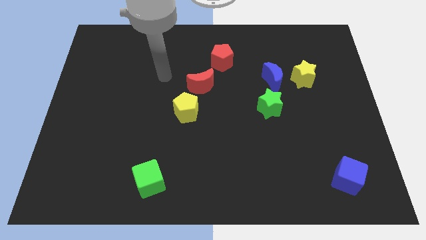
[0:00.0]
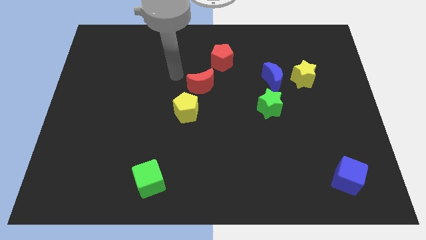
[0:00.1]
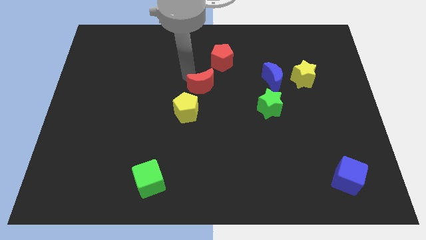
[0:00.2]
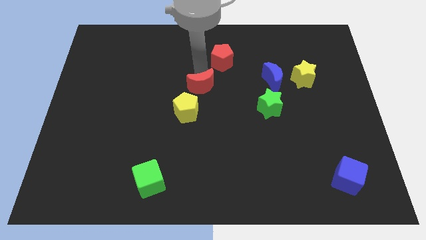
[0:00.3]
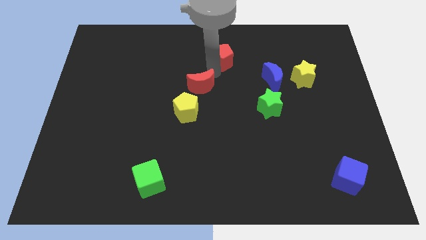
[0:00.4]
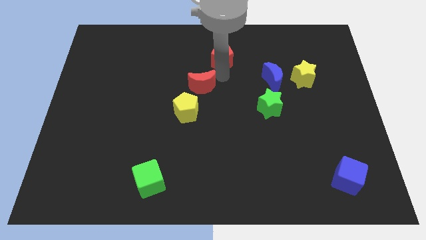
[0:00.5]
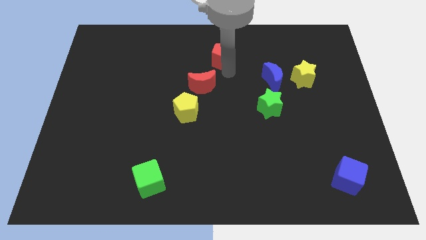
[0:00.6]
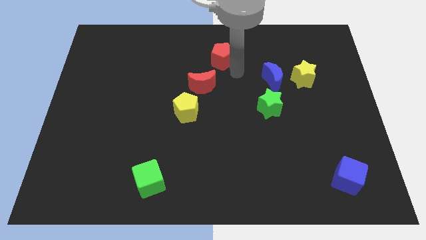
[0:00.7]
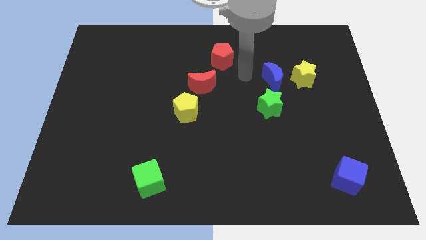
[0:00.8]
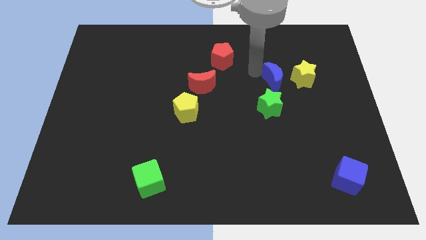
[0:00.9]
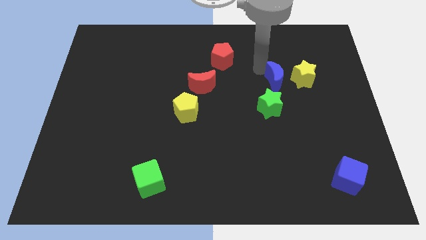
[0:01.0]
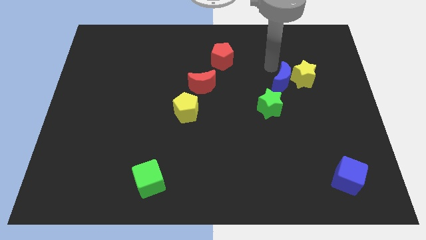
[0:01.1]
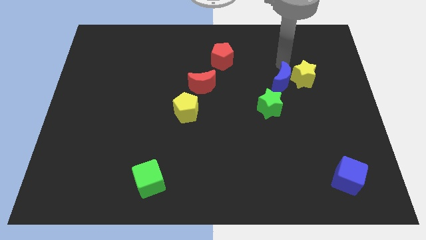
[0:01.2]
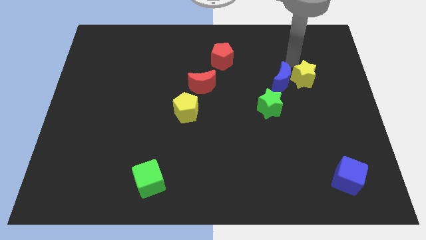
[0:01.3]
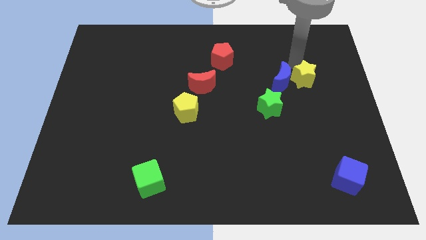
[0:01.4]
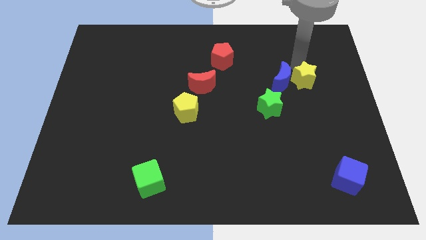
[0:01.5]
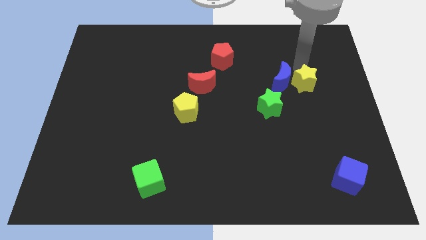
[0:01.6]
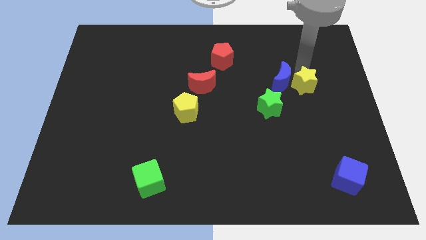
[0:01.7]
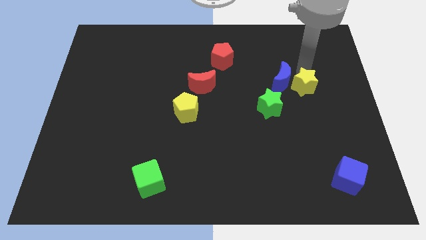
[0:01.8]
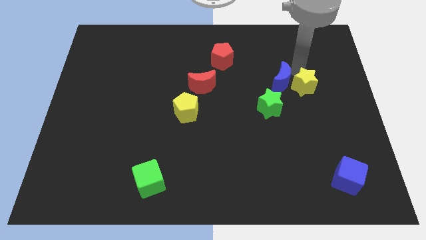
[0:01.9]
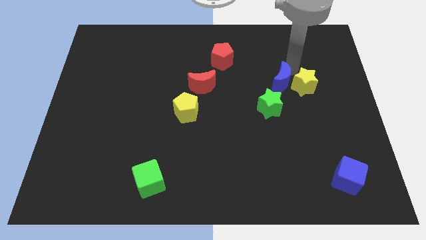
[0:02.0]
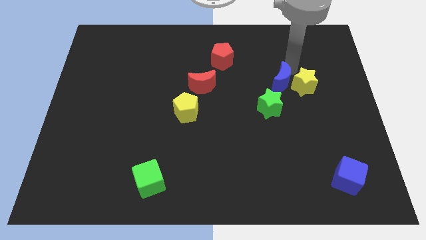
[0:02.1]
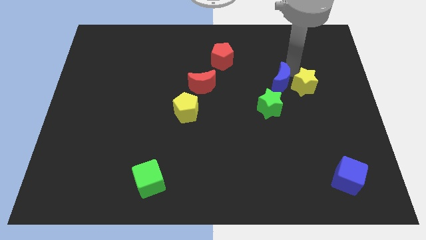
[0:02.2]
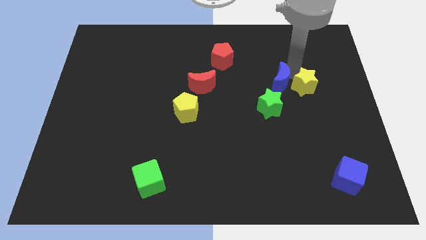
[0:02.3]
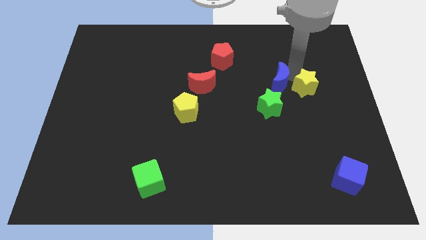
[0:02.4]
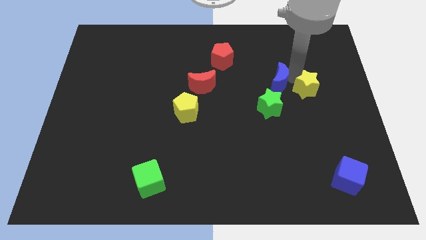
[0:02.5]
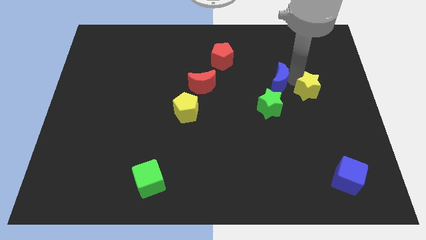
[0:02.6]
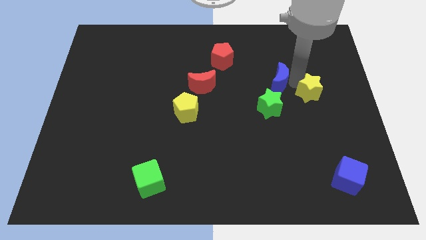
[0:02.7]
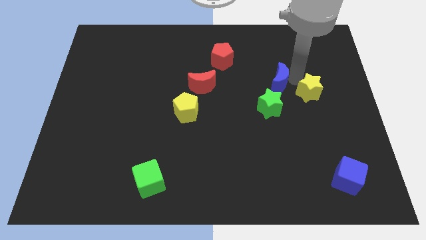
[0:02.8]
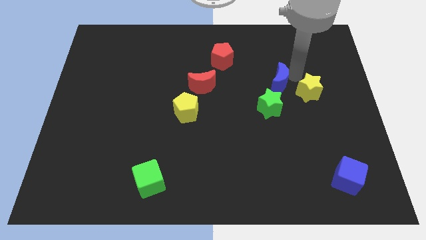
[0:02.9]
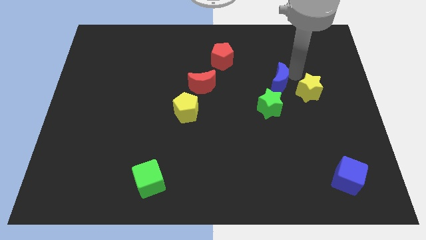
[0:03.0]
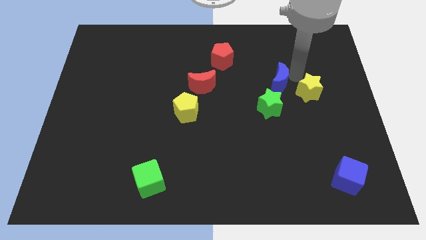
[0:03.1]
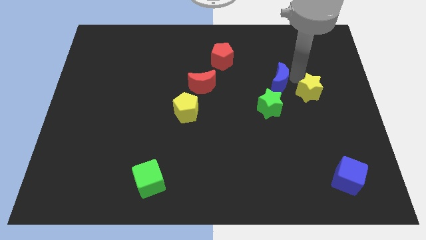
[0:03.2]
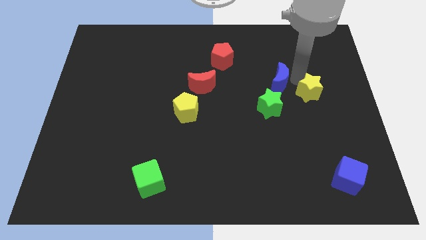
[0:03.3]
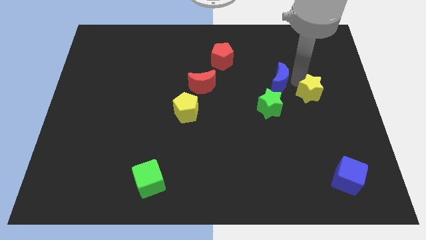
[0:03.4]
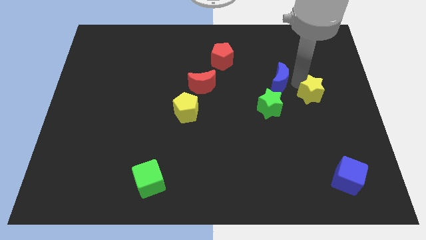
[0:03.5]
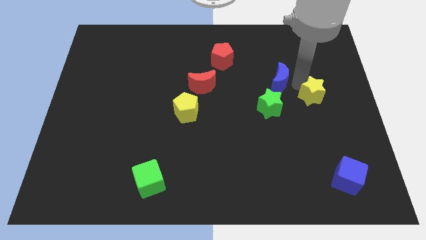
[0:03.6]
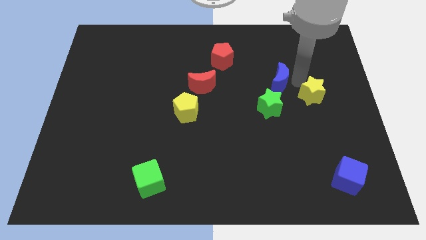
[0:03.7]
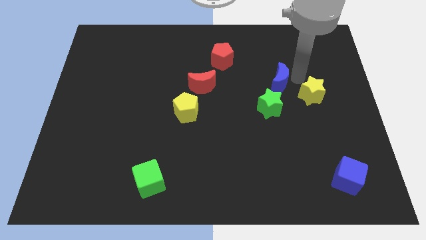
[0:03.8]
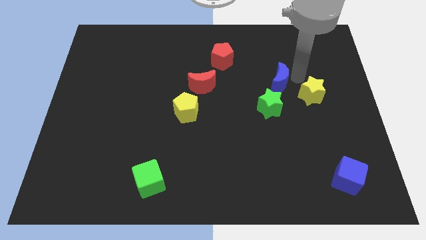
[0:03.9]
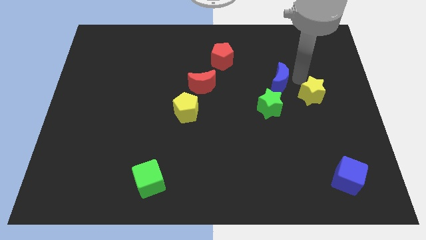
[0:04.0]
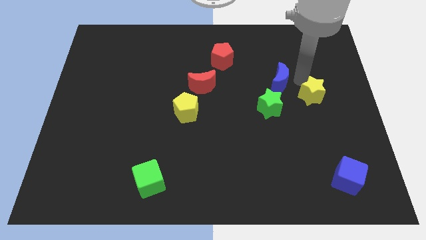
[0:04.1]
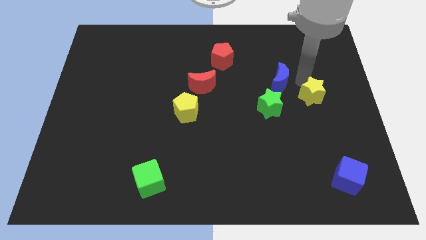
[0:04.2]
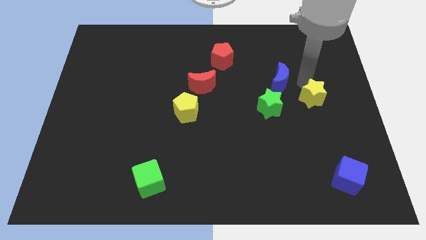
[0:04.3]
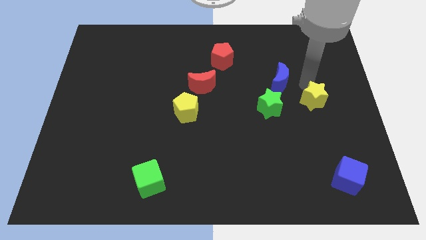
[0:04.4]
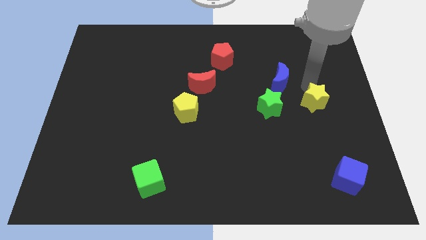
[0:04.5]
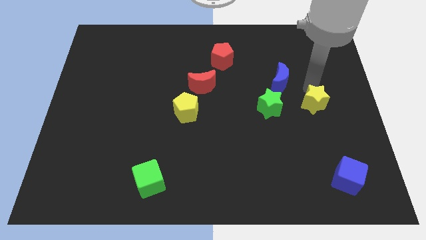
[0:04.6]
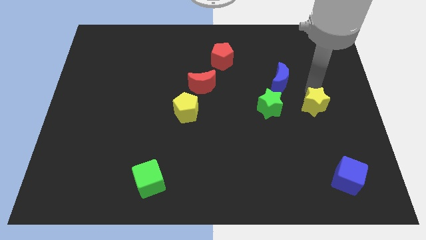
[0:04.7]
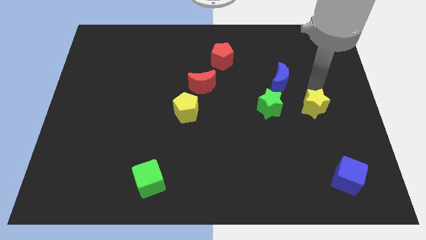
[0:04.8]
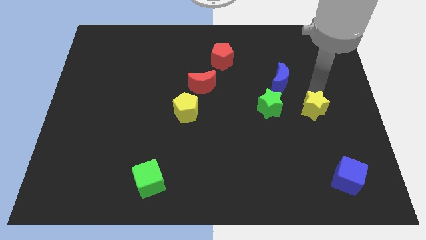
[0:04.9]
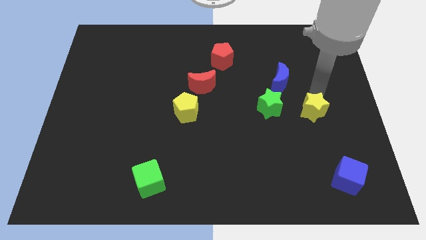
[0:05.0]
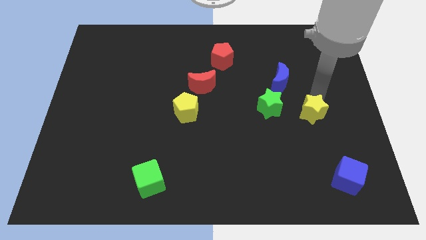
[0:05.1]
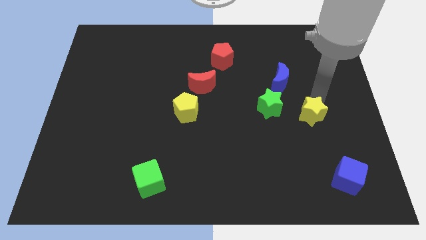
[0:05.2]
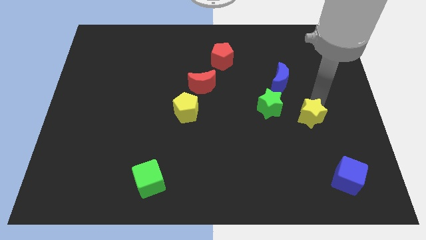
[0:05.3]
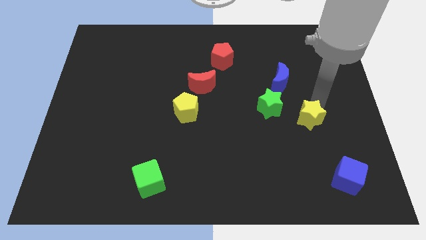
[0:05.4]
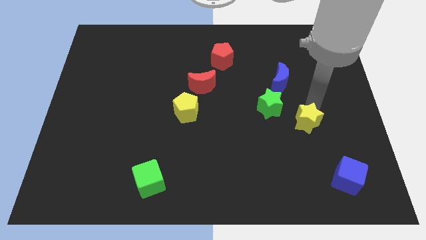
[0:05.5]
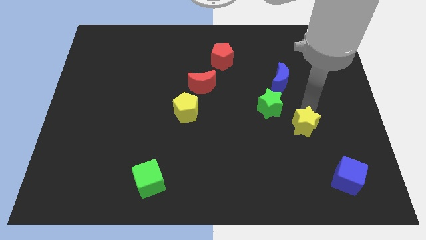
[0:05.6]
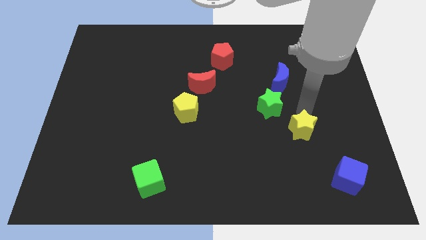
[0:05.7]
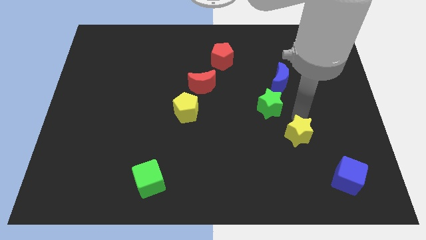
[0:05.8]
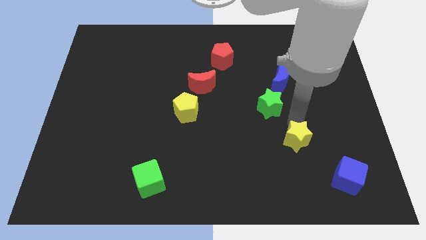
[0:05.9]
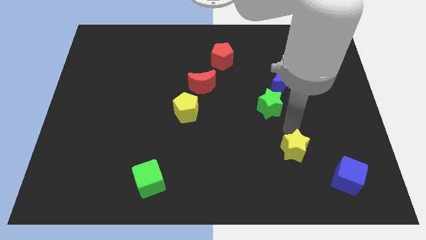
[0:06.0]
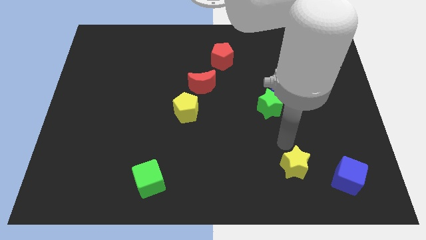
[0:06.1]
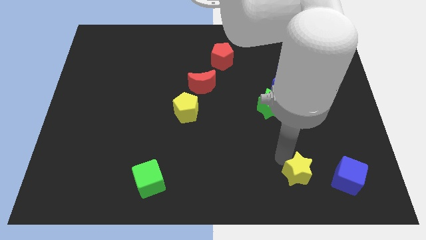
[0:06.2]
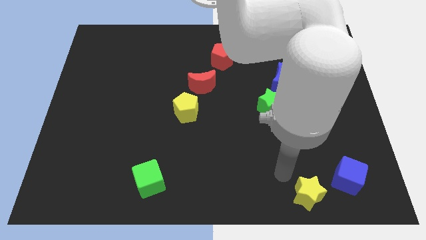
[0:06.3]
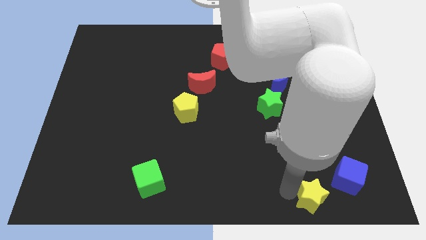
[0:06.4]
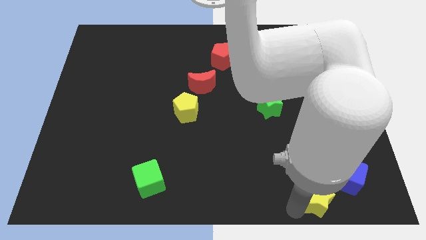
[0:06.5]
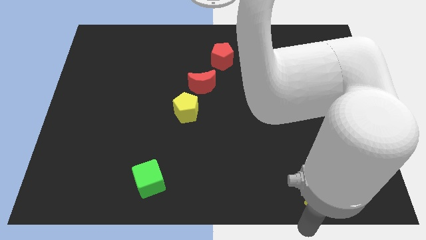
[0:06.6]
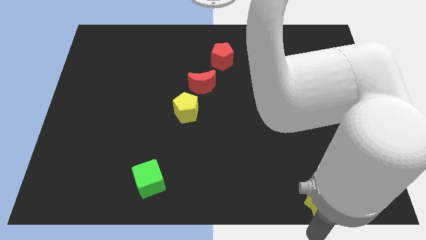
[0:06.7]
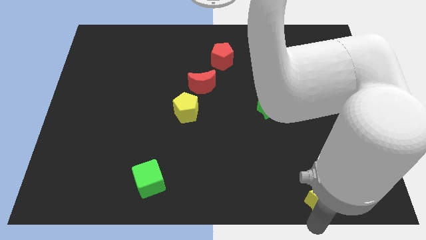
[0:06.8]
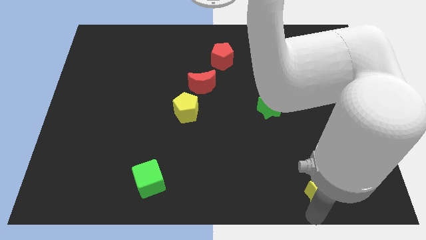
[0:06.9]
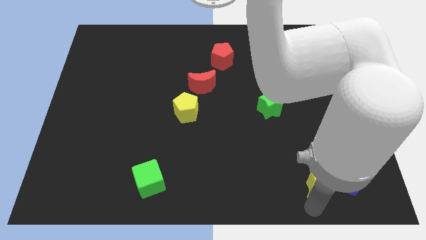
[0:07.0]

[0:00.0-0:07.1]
put the yellow star next to the blue cube
